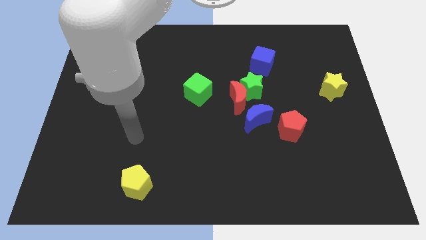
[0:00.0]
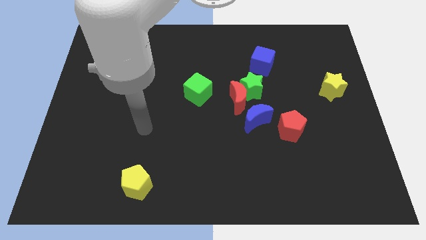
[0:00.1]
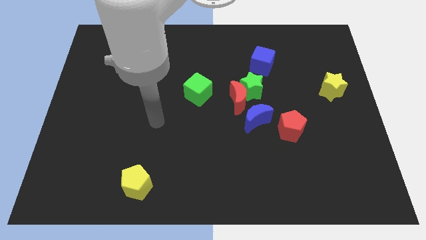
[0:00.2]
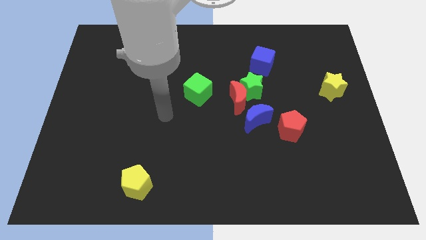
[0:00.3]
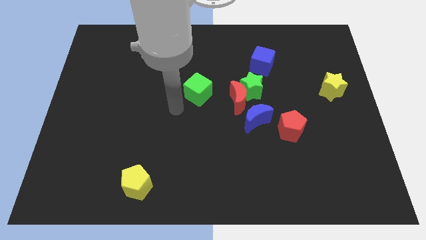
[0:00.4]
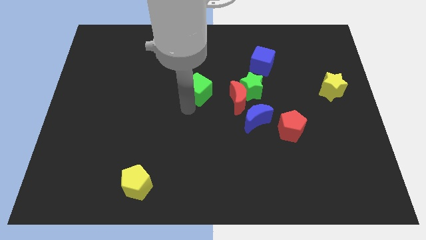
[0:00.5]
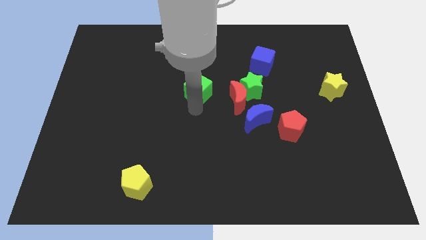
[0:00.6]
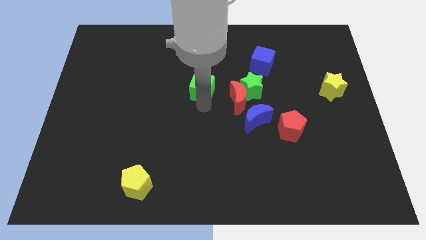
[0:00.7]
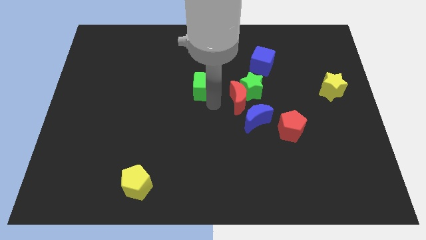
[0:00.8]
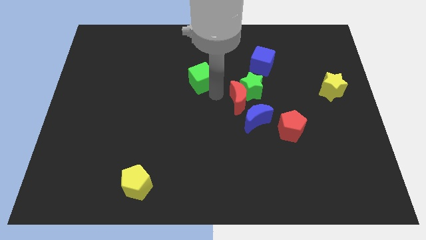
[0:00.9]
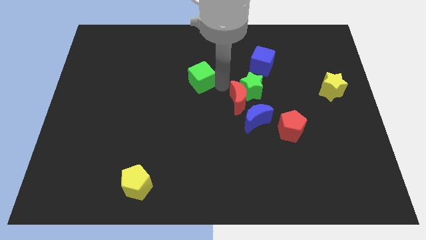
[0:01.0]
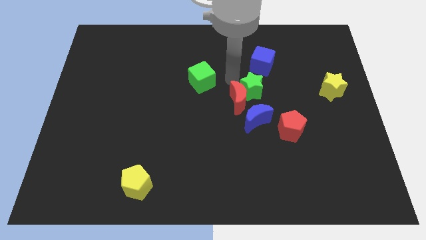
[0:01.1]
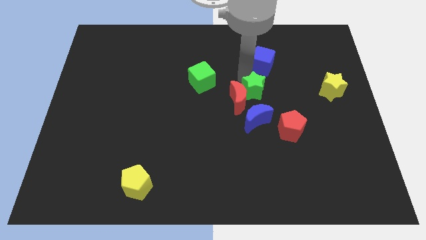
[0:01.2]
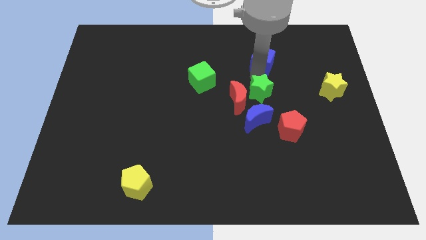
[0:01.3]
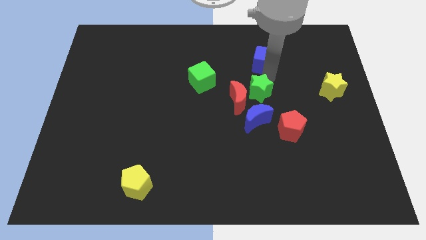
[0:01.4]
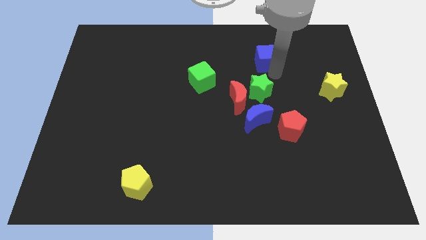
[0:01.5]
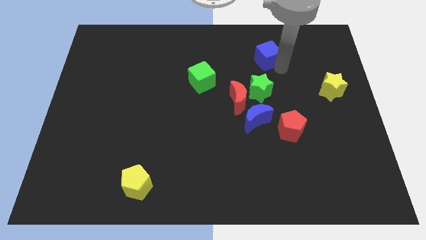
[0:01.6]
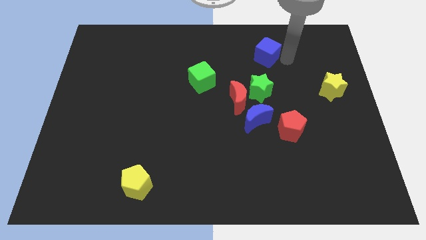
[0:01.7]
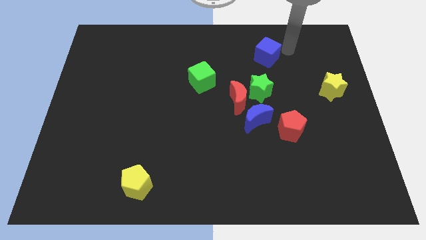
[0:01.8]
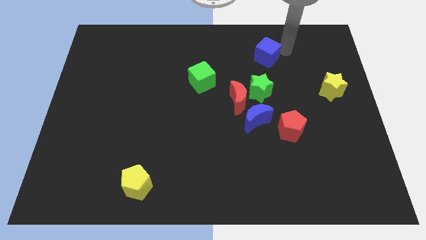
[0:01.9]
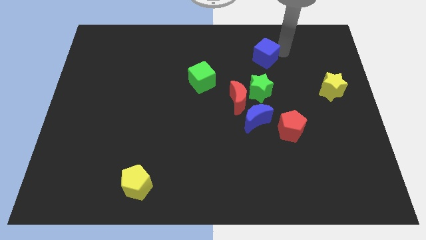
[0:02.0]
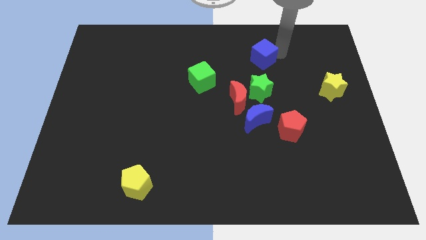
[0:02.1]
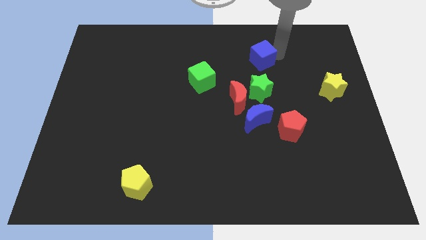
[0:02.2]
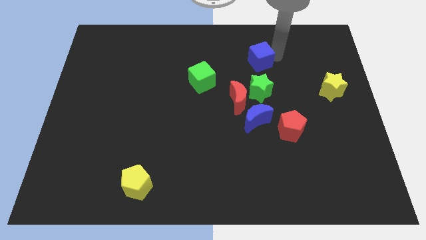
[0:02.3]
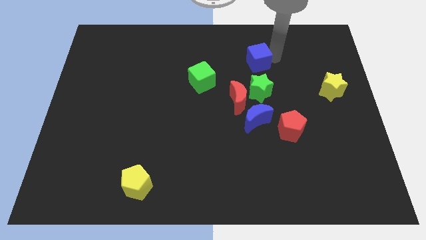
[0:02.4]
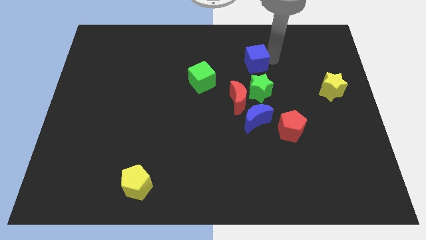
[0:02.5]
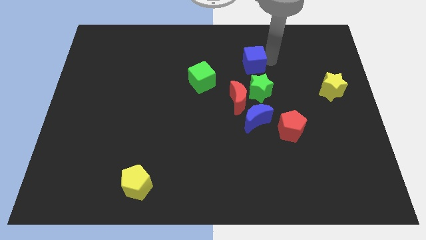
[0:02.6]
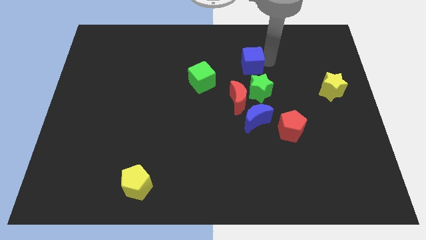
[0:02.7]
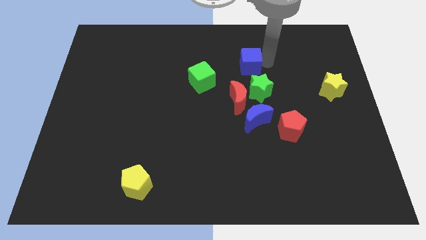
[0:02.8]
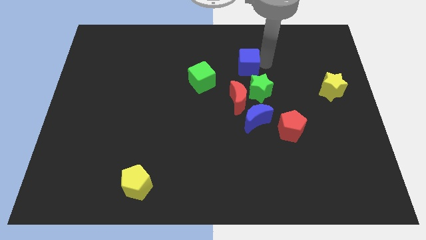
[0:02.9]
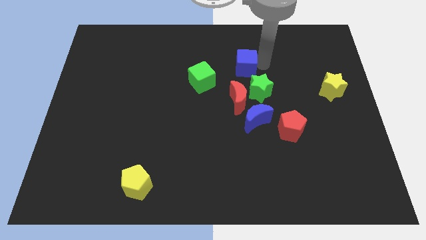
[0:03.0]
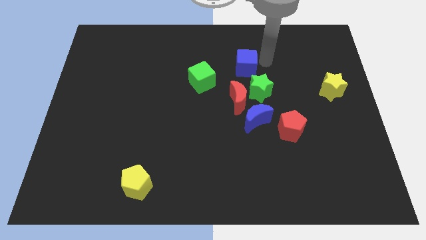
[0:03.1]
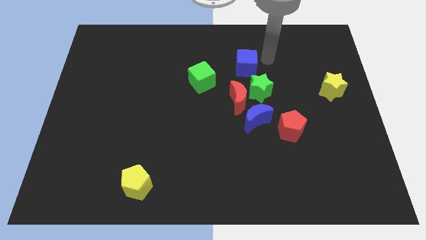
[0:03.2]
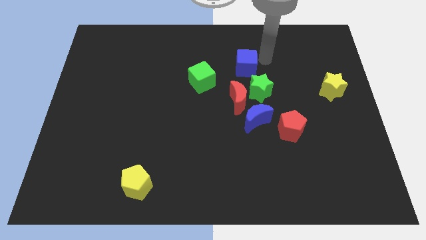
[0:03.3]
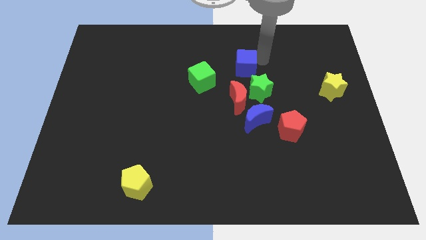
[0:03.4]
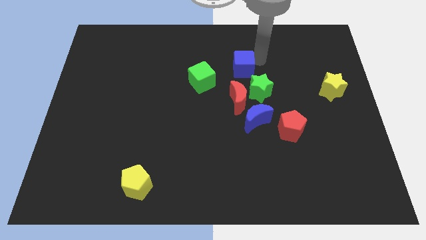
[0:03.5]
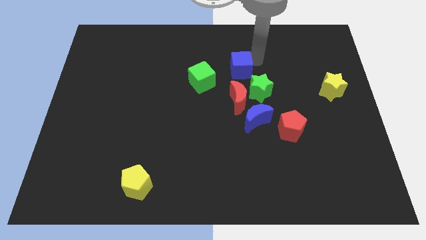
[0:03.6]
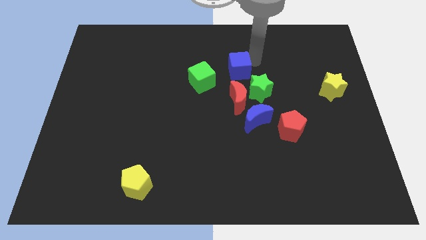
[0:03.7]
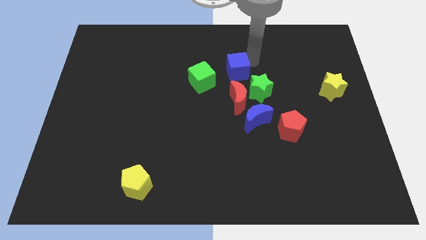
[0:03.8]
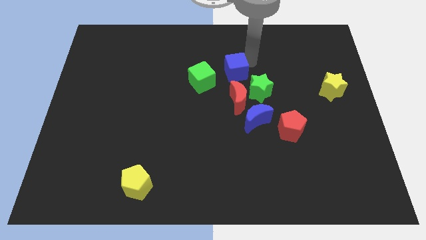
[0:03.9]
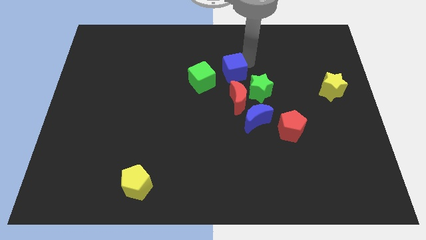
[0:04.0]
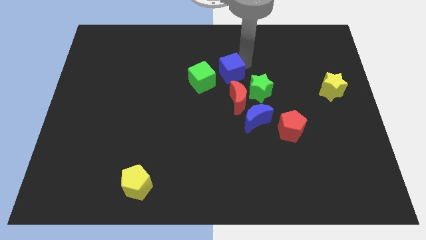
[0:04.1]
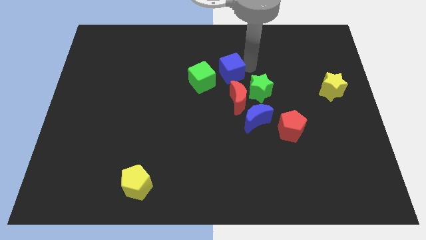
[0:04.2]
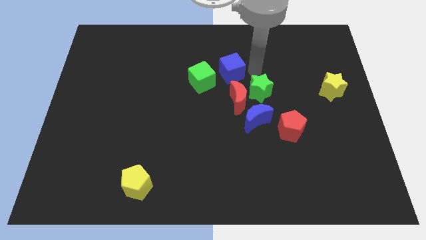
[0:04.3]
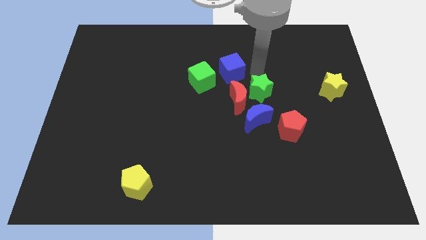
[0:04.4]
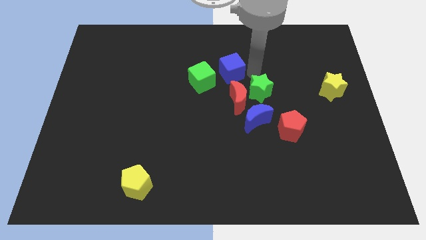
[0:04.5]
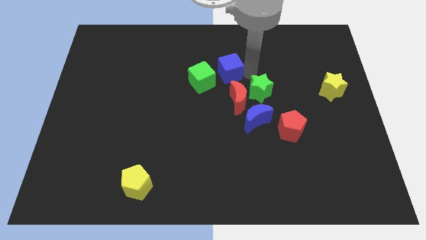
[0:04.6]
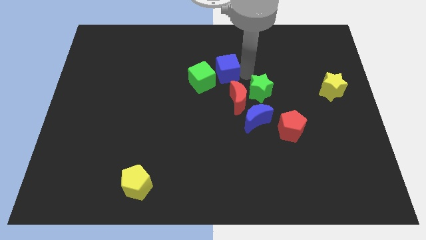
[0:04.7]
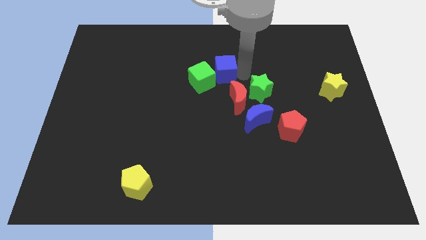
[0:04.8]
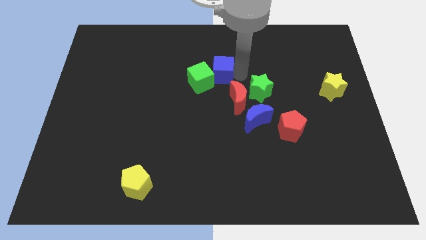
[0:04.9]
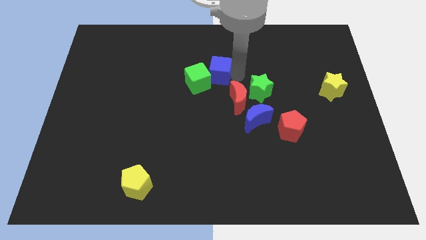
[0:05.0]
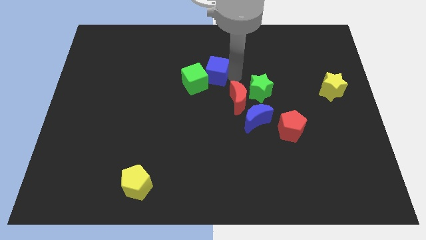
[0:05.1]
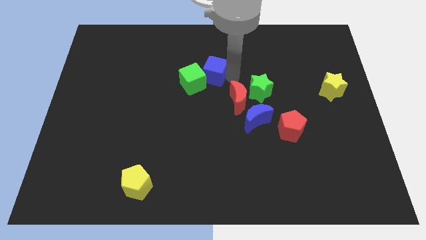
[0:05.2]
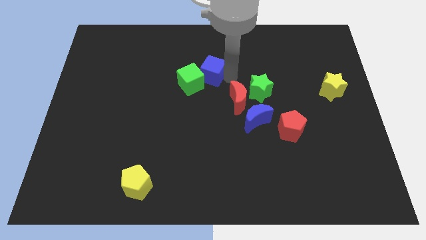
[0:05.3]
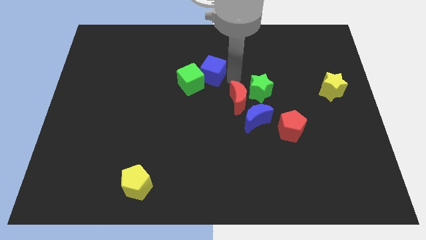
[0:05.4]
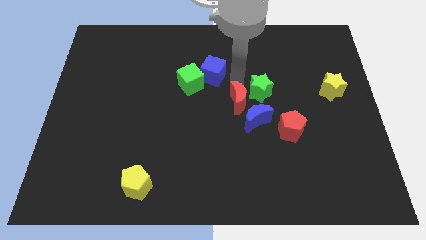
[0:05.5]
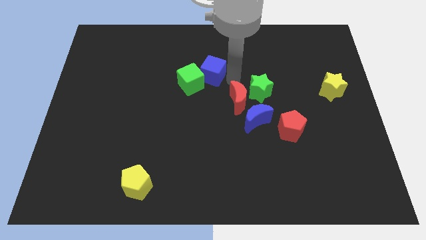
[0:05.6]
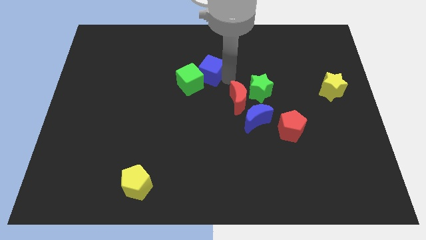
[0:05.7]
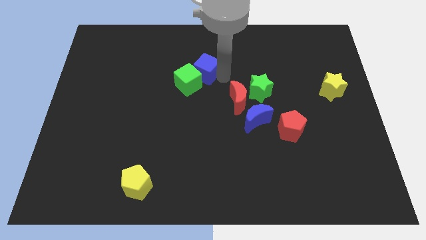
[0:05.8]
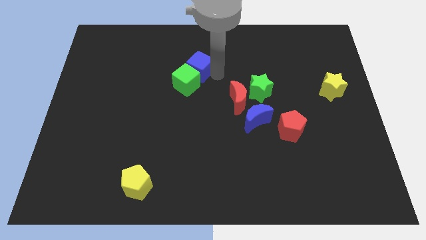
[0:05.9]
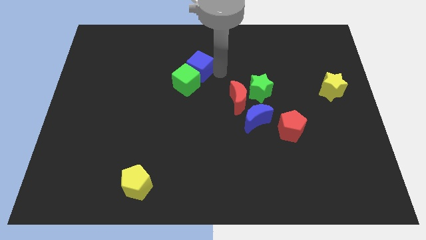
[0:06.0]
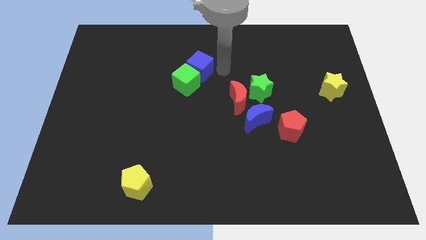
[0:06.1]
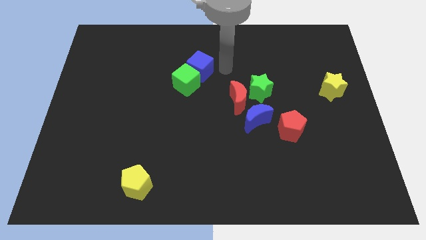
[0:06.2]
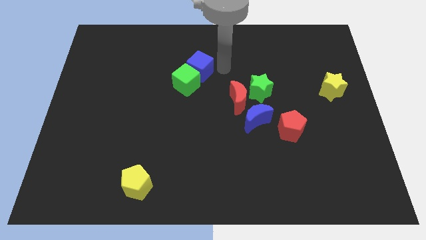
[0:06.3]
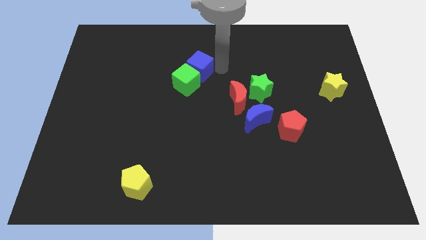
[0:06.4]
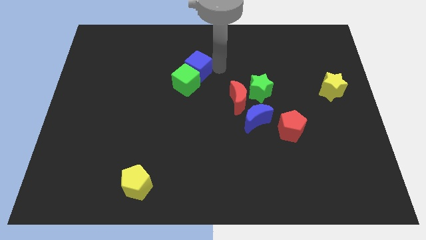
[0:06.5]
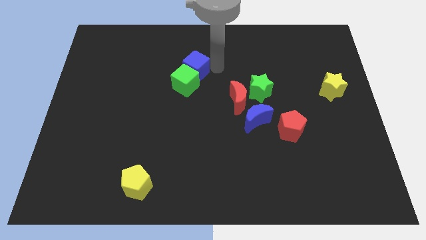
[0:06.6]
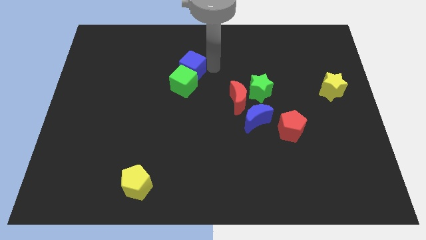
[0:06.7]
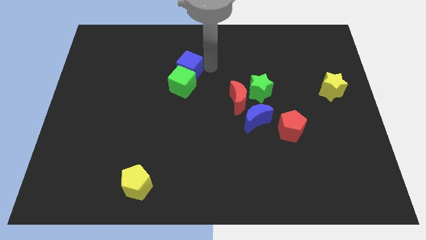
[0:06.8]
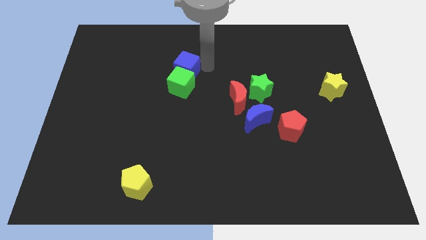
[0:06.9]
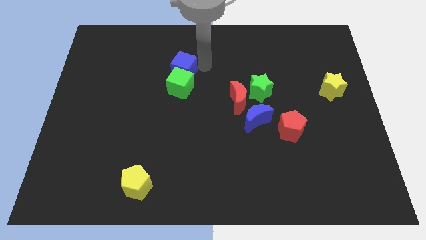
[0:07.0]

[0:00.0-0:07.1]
push the blue cube left

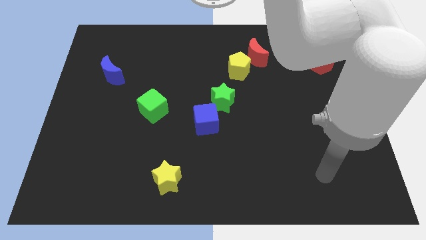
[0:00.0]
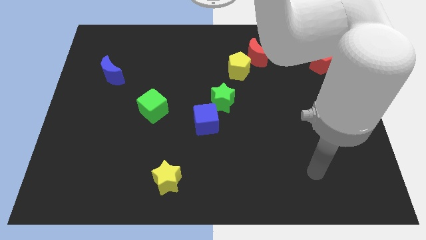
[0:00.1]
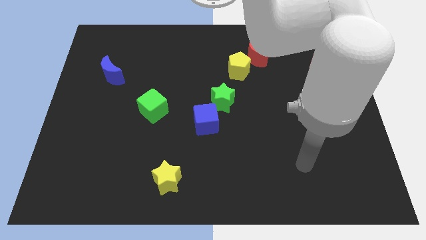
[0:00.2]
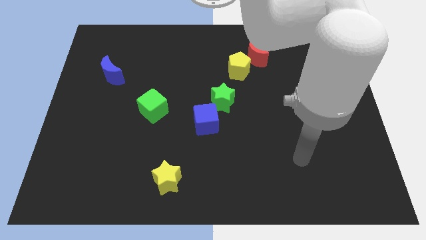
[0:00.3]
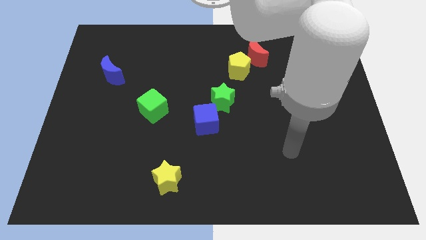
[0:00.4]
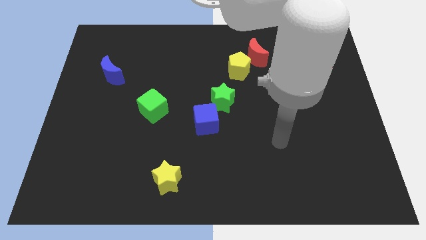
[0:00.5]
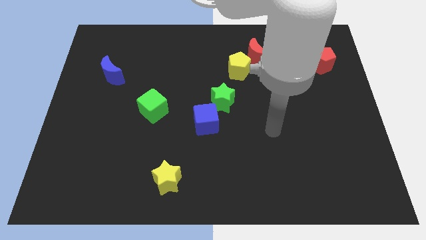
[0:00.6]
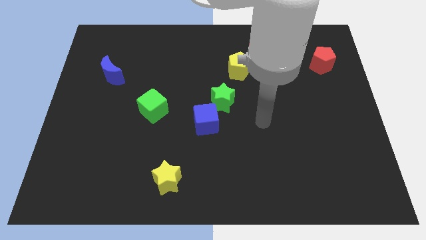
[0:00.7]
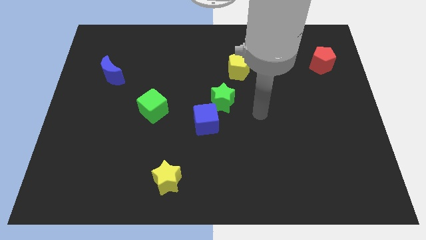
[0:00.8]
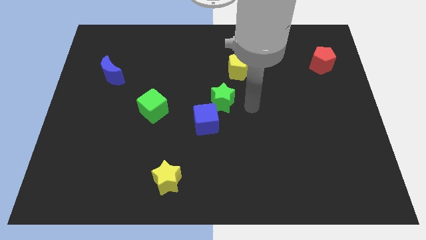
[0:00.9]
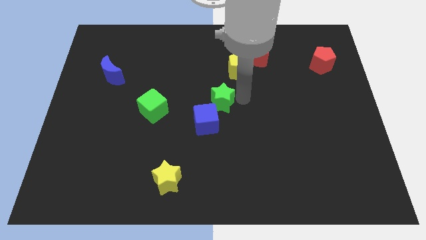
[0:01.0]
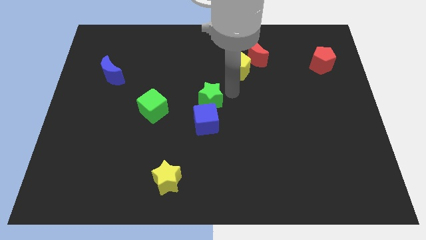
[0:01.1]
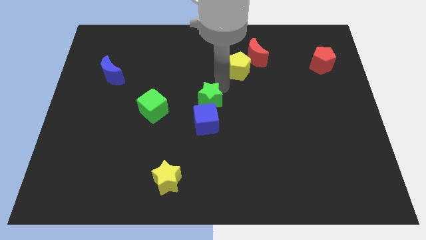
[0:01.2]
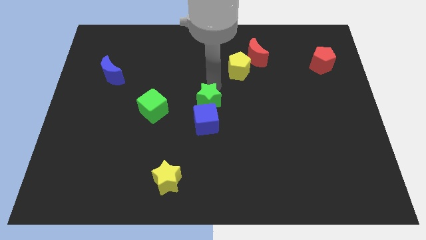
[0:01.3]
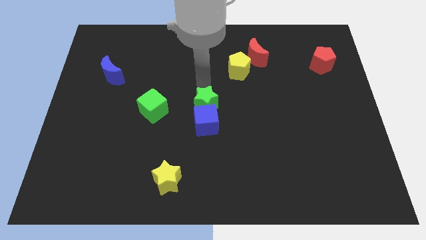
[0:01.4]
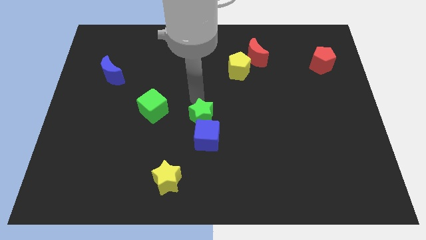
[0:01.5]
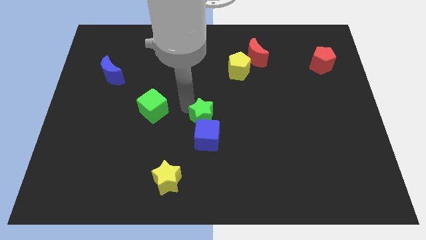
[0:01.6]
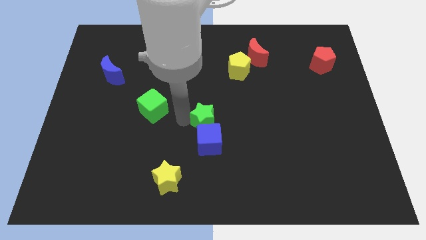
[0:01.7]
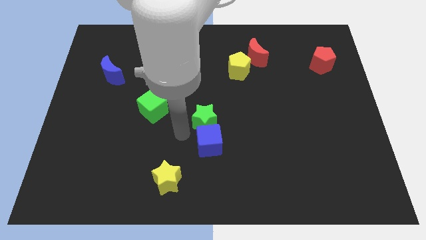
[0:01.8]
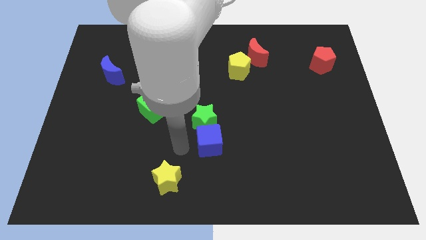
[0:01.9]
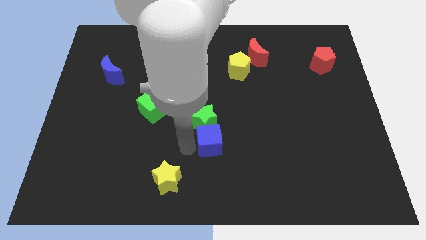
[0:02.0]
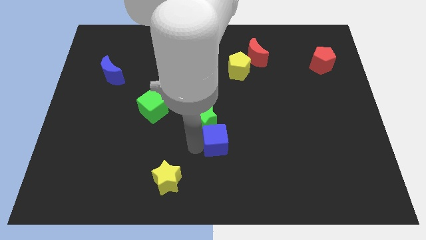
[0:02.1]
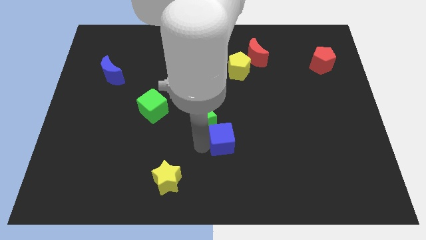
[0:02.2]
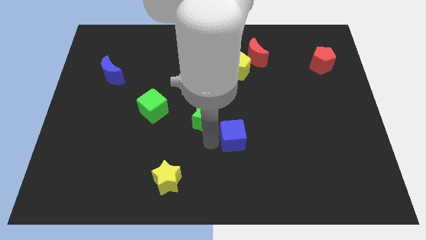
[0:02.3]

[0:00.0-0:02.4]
slightly slide the blue cube diagonally downwards and right
